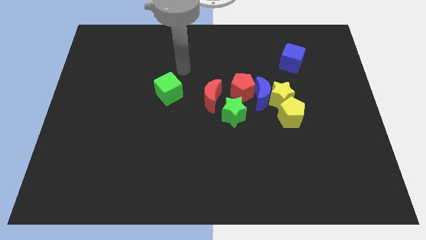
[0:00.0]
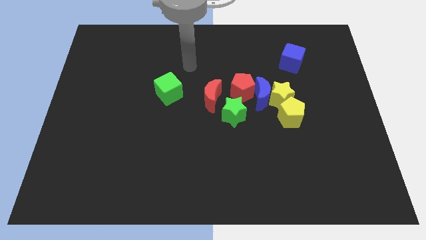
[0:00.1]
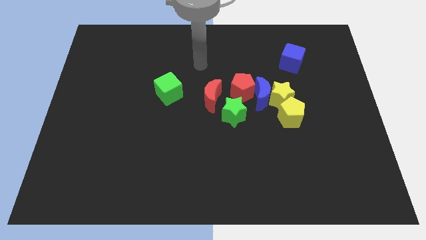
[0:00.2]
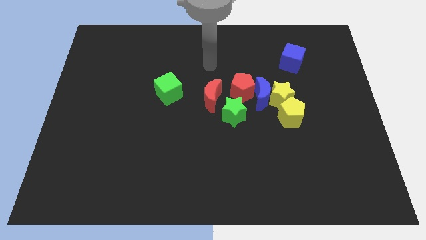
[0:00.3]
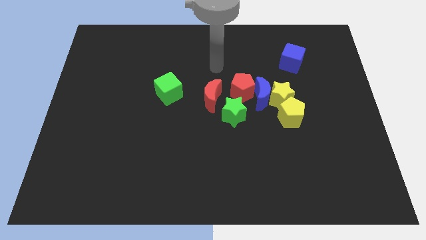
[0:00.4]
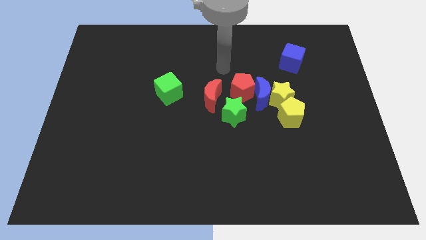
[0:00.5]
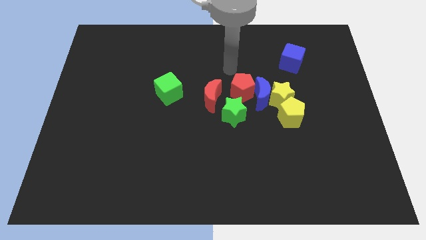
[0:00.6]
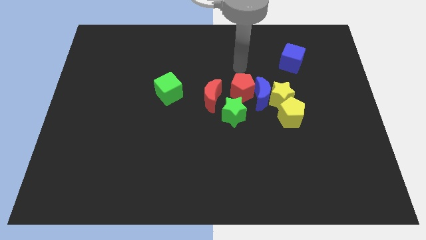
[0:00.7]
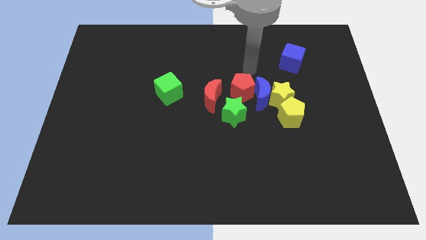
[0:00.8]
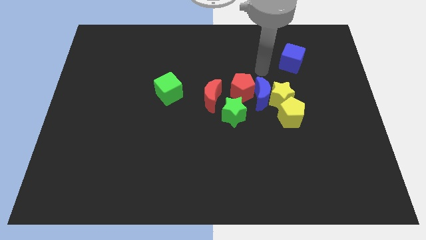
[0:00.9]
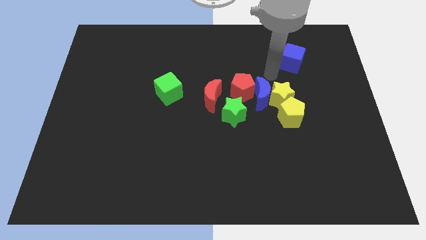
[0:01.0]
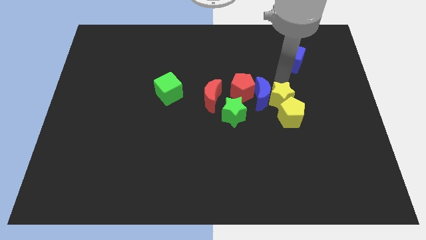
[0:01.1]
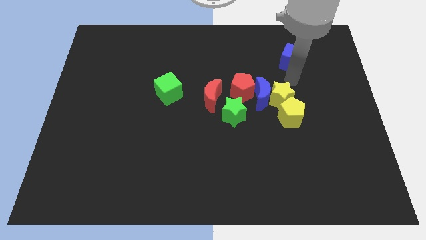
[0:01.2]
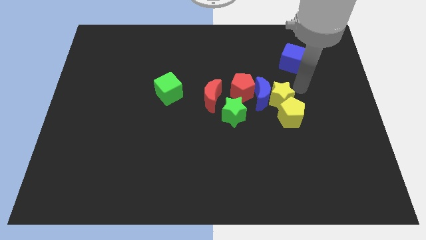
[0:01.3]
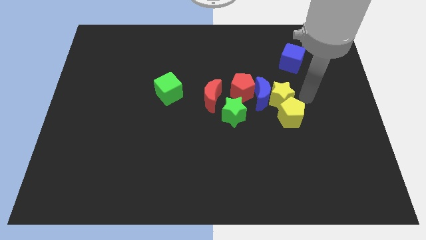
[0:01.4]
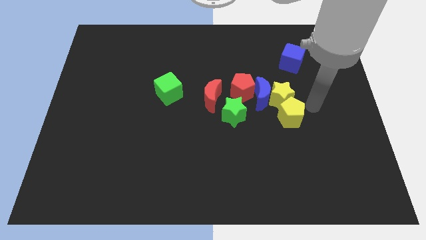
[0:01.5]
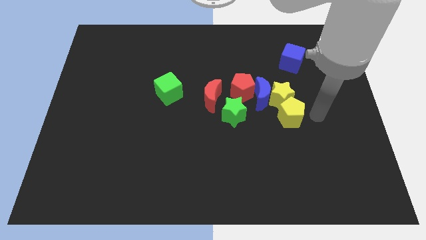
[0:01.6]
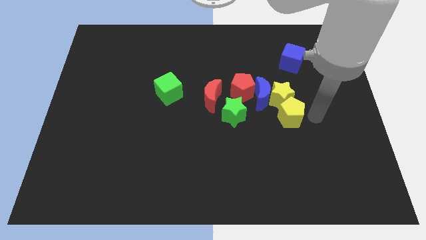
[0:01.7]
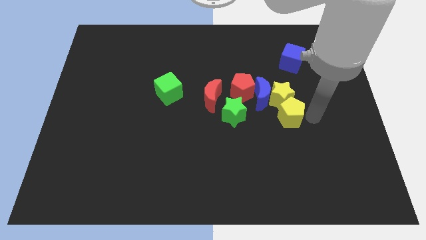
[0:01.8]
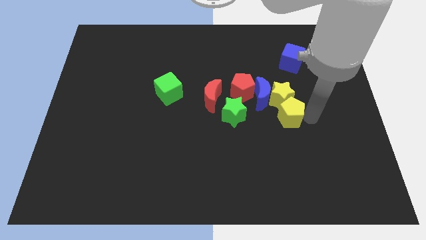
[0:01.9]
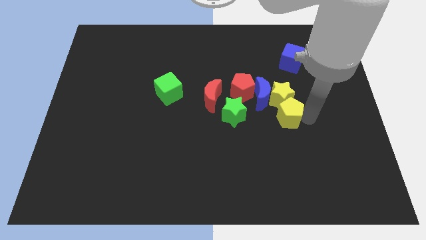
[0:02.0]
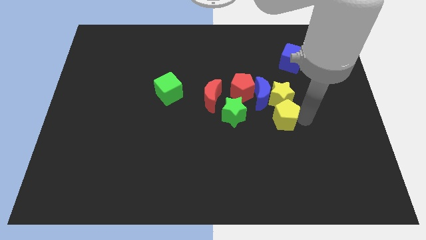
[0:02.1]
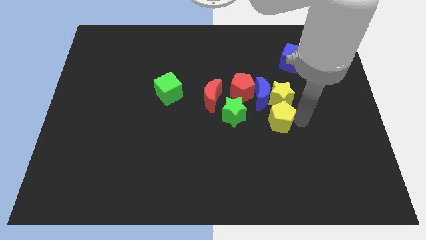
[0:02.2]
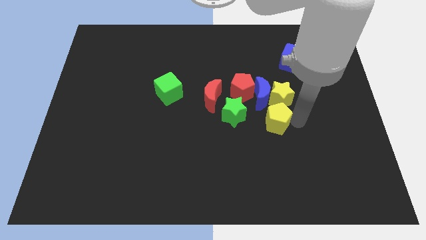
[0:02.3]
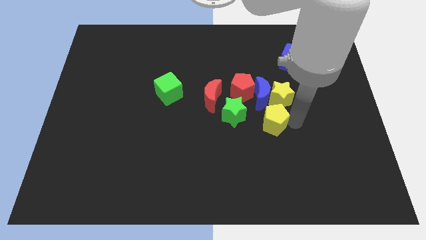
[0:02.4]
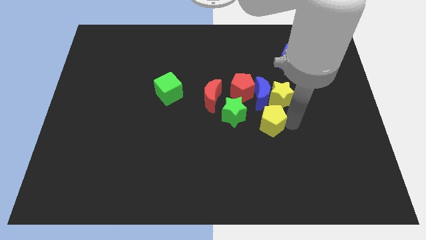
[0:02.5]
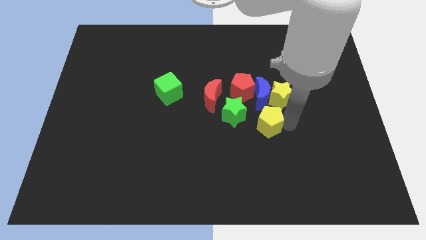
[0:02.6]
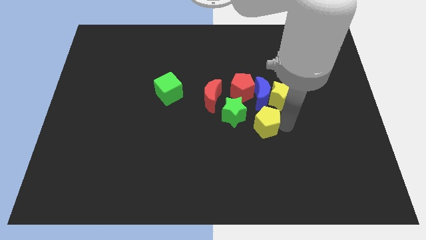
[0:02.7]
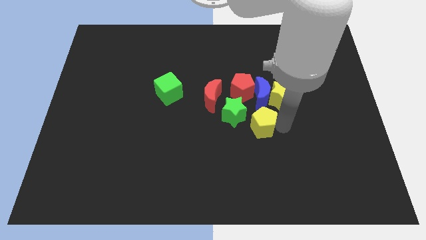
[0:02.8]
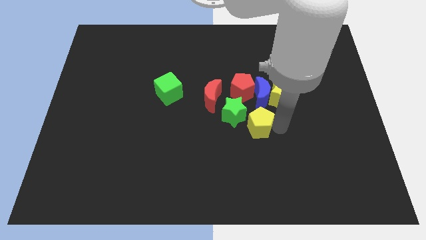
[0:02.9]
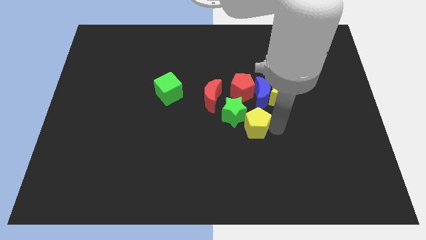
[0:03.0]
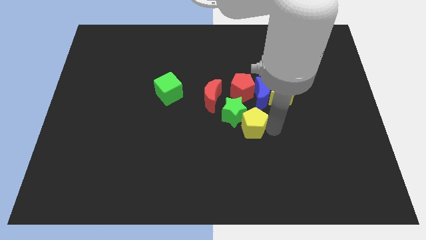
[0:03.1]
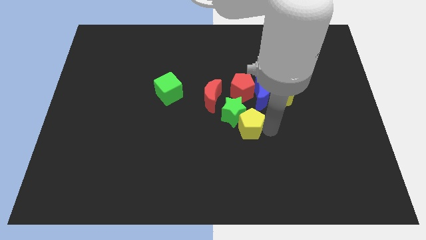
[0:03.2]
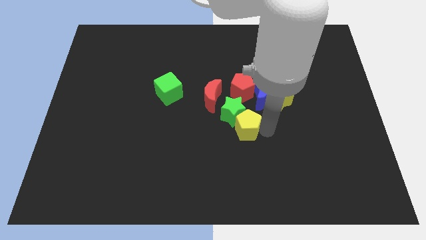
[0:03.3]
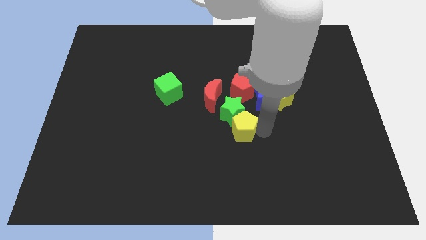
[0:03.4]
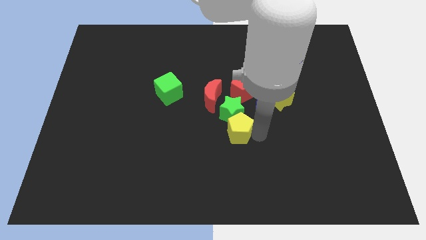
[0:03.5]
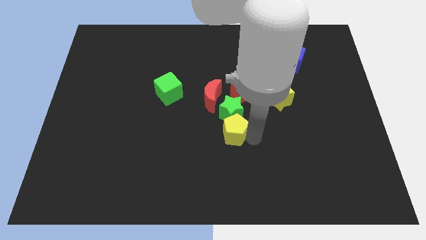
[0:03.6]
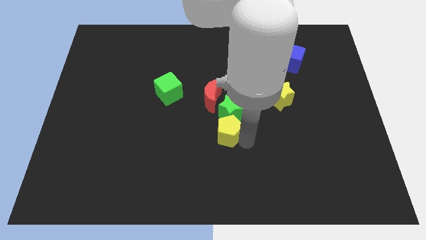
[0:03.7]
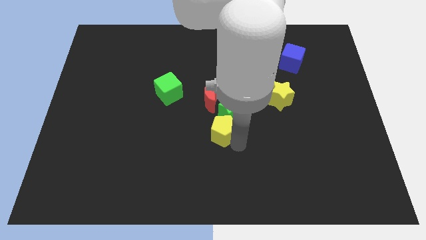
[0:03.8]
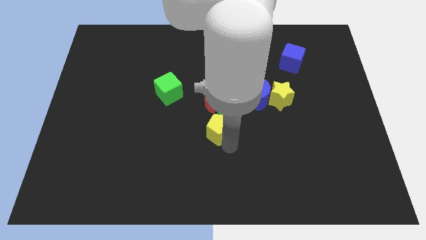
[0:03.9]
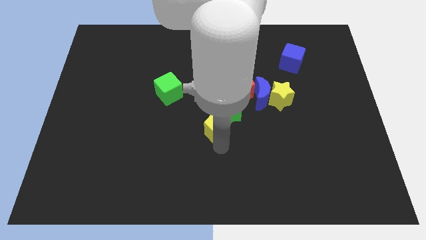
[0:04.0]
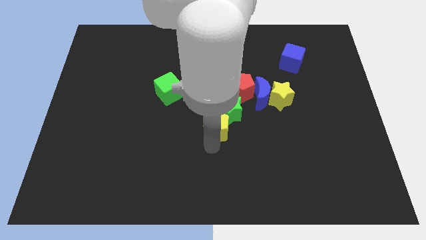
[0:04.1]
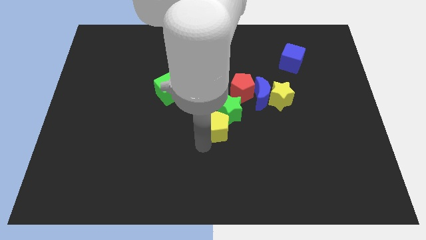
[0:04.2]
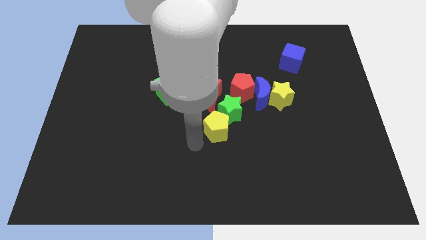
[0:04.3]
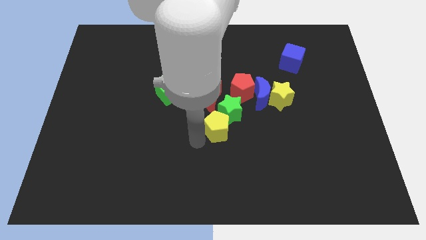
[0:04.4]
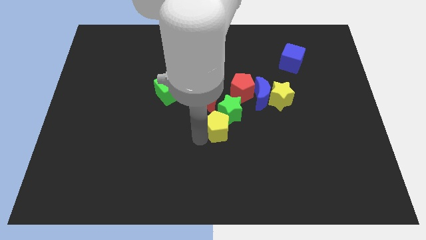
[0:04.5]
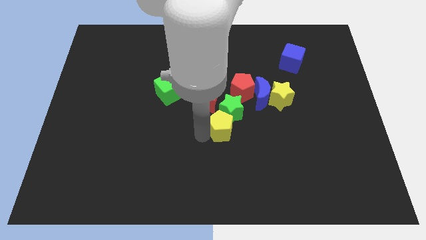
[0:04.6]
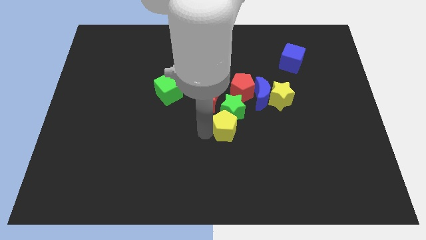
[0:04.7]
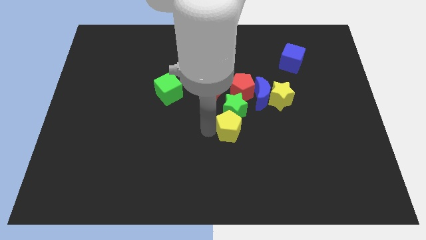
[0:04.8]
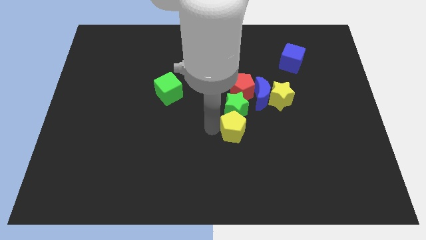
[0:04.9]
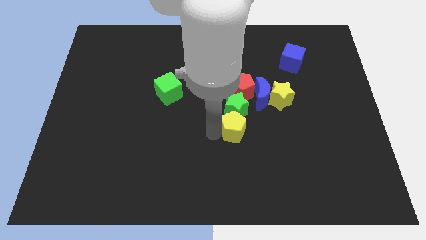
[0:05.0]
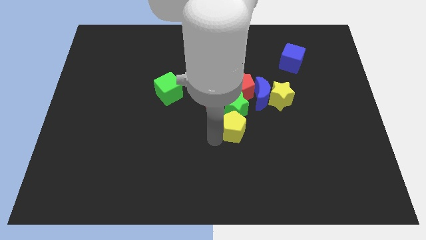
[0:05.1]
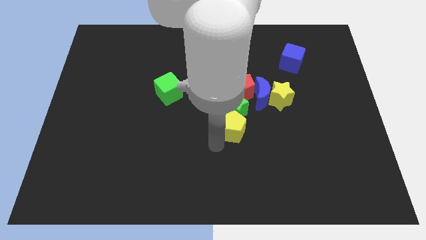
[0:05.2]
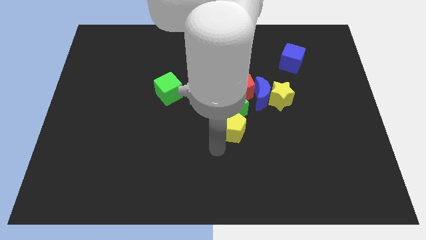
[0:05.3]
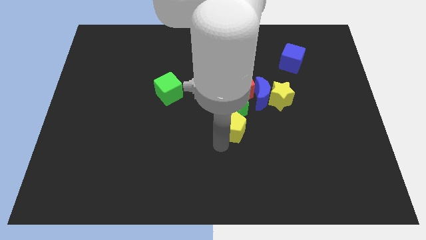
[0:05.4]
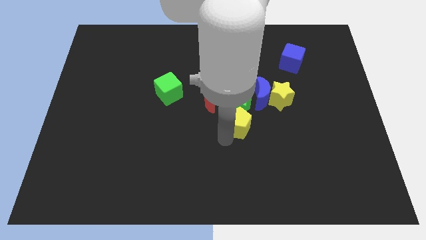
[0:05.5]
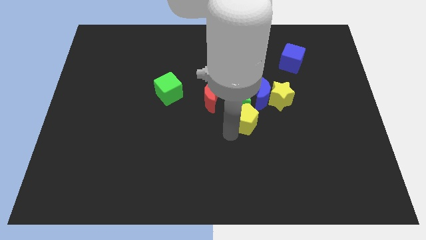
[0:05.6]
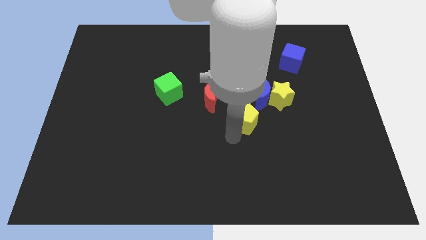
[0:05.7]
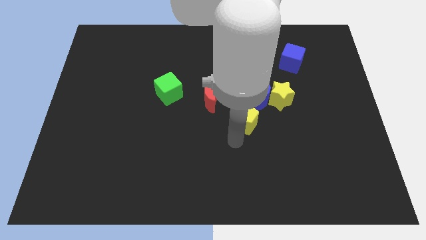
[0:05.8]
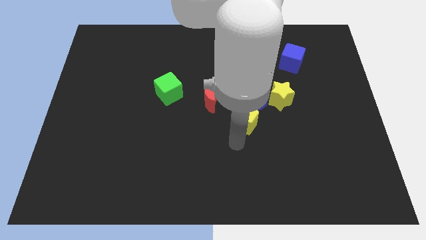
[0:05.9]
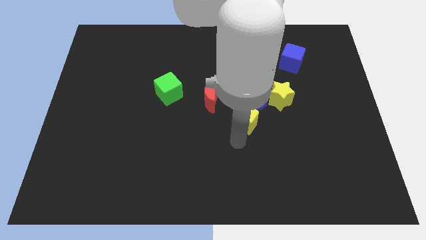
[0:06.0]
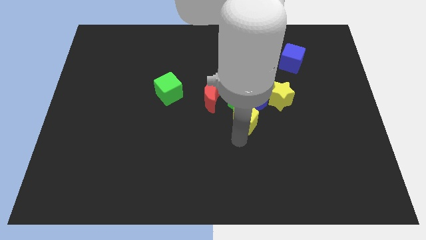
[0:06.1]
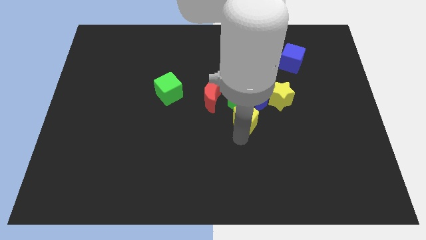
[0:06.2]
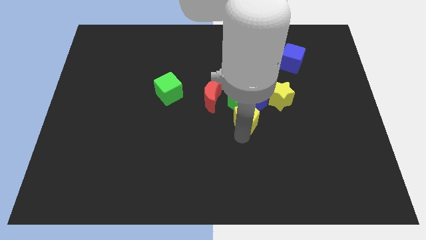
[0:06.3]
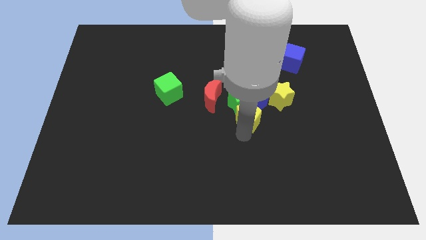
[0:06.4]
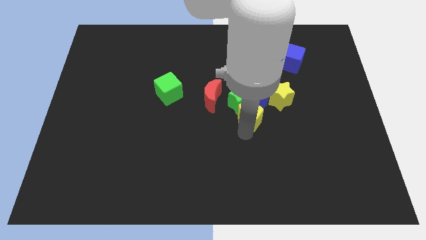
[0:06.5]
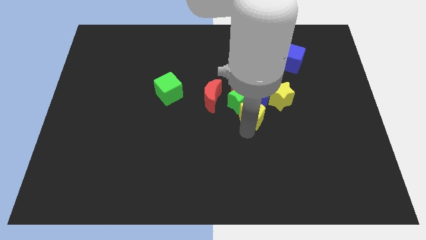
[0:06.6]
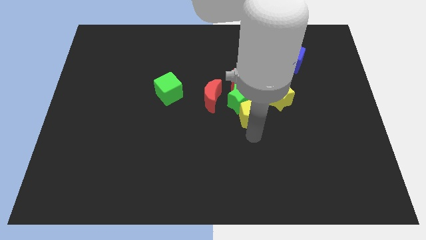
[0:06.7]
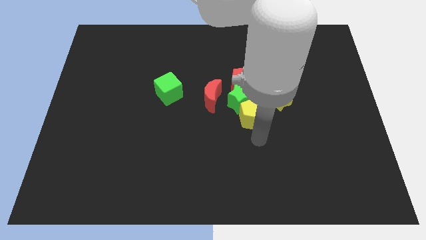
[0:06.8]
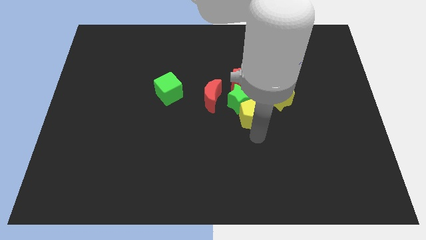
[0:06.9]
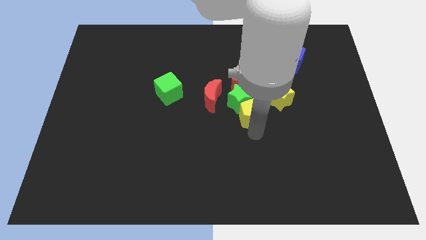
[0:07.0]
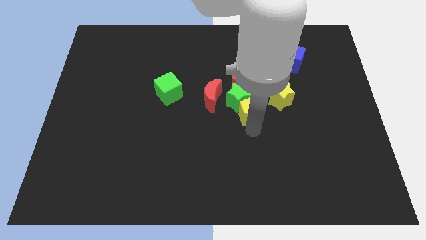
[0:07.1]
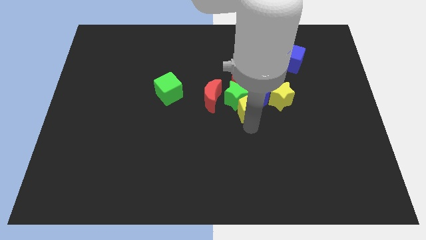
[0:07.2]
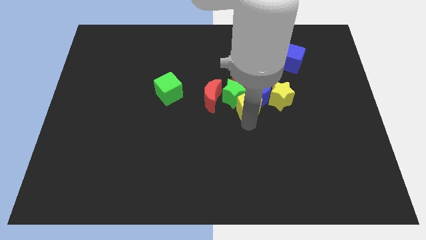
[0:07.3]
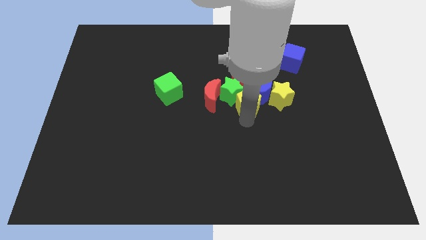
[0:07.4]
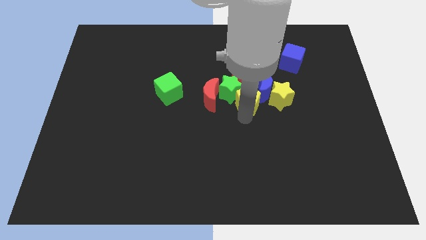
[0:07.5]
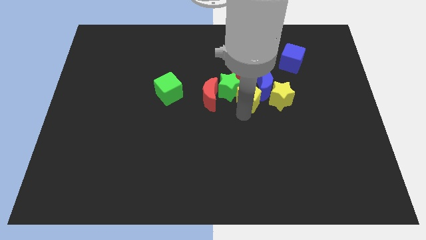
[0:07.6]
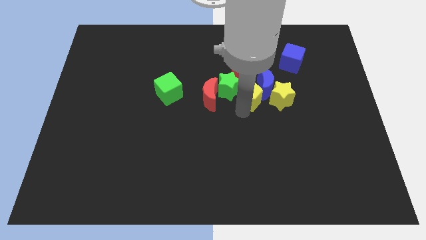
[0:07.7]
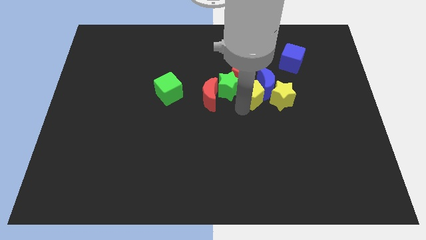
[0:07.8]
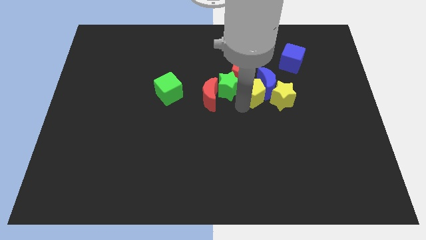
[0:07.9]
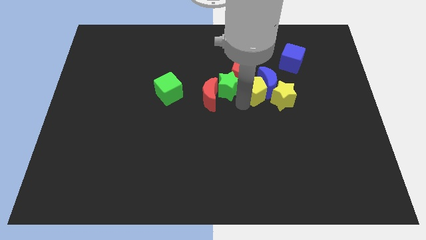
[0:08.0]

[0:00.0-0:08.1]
push the yellow pentagon towards the red pentagon
